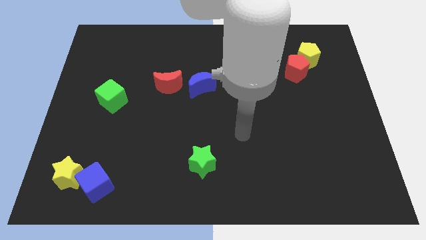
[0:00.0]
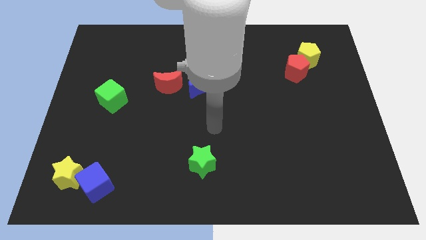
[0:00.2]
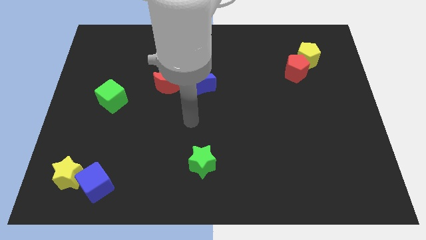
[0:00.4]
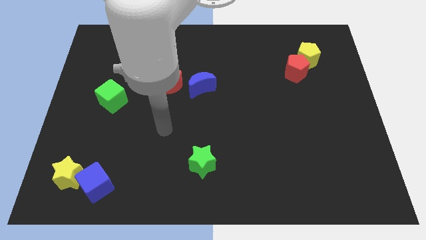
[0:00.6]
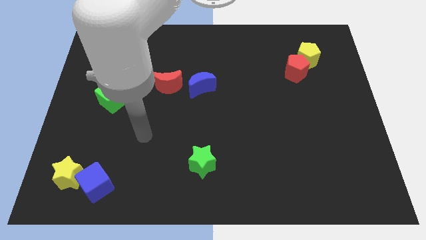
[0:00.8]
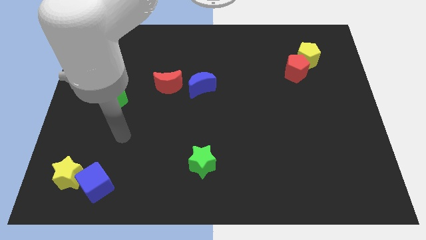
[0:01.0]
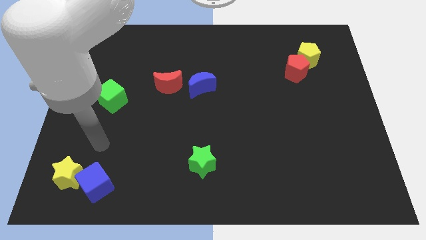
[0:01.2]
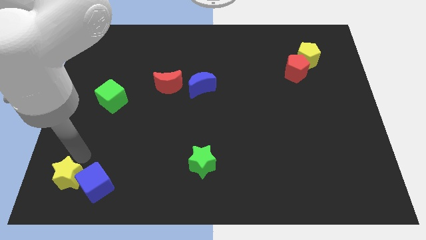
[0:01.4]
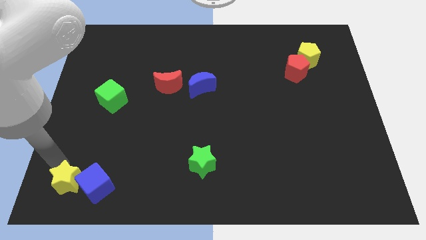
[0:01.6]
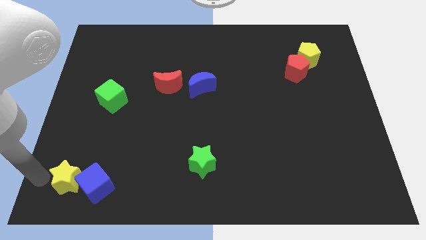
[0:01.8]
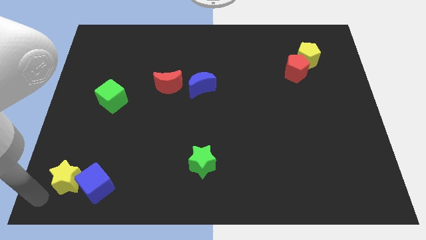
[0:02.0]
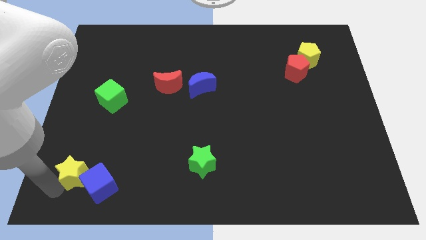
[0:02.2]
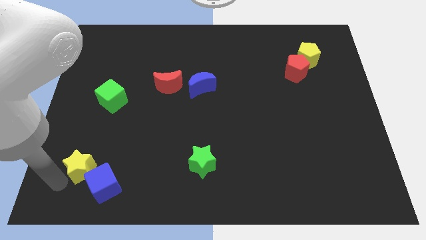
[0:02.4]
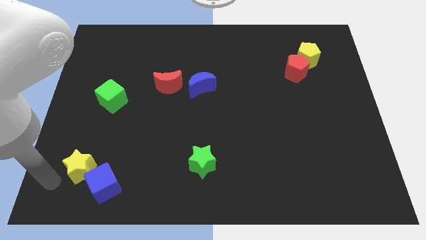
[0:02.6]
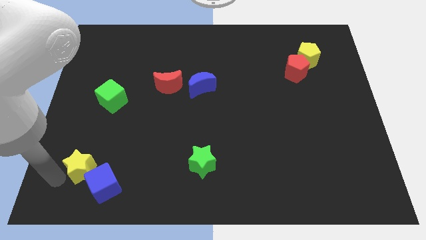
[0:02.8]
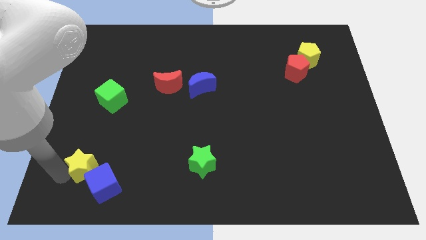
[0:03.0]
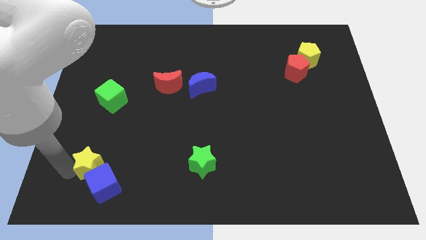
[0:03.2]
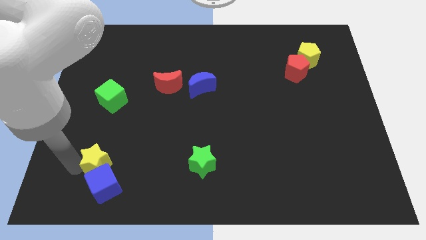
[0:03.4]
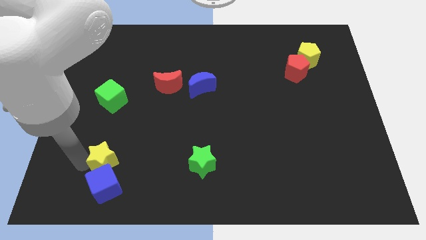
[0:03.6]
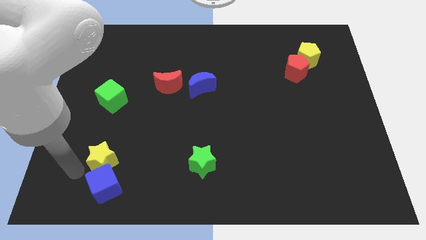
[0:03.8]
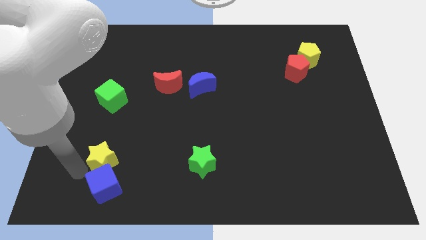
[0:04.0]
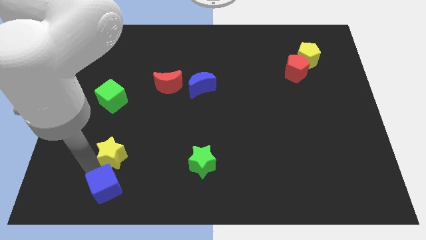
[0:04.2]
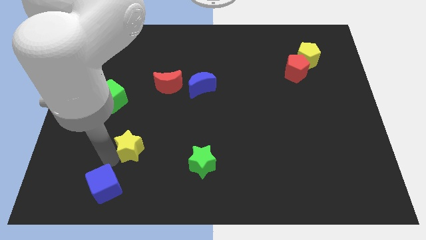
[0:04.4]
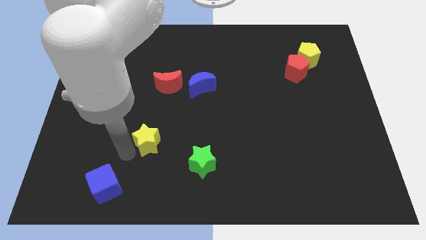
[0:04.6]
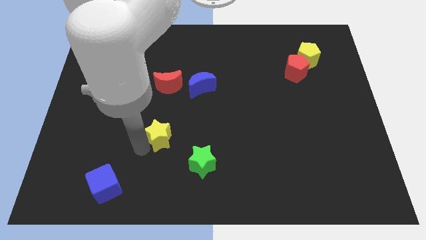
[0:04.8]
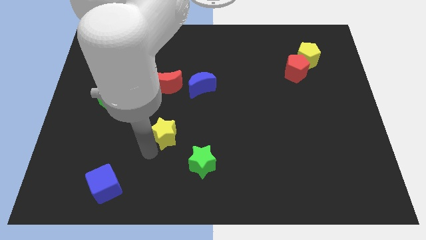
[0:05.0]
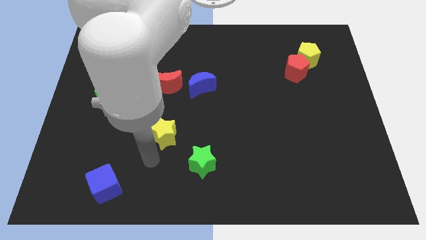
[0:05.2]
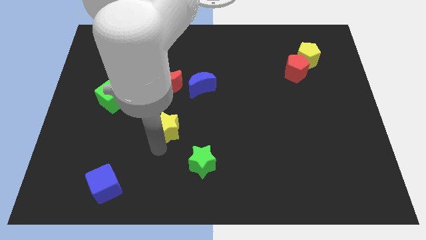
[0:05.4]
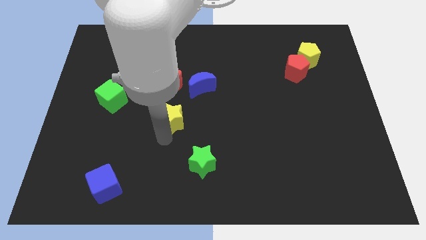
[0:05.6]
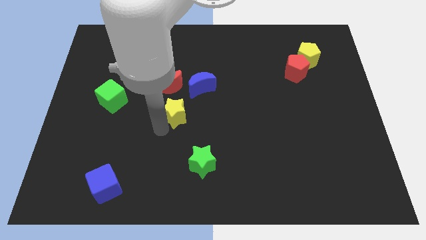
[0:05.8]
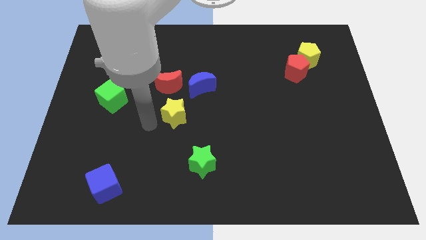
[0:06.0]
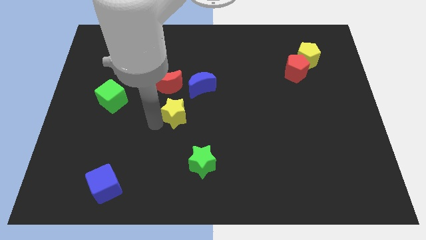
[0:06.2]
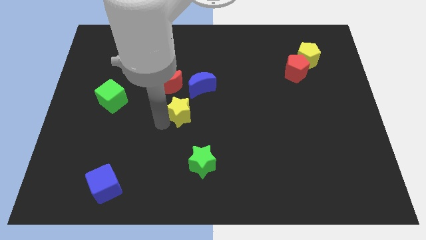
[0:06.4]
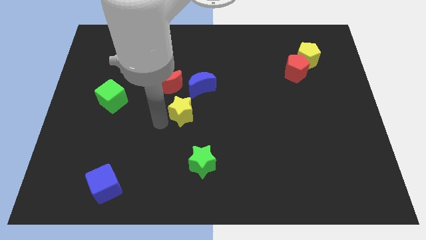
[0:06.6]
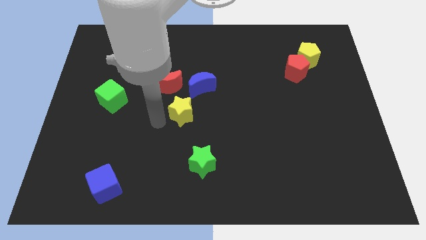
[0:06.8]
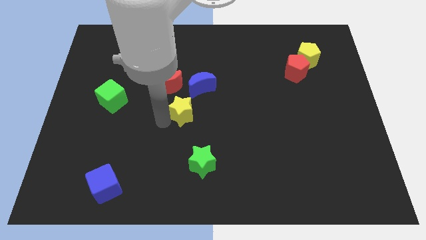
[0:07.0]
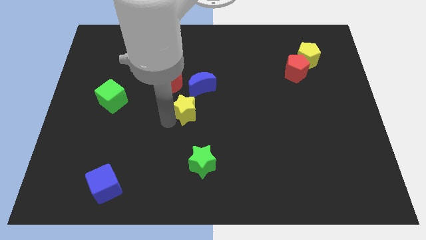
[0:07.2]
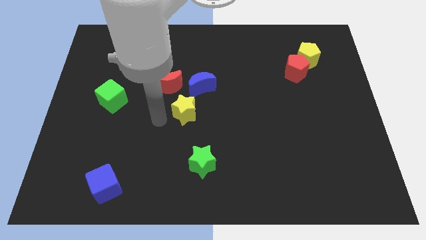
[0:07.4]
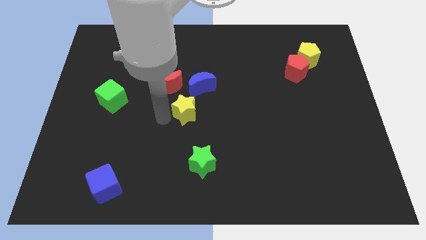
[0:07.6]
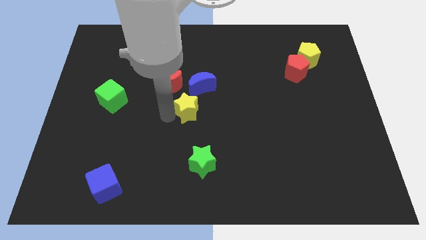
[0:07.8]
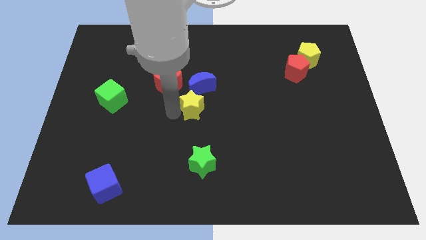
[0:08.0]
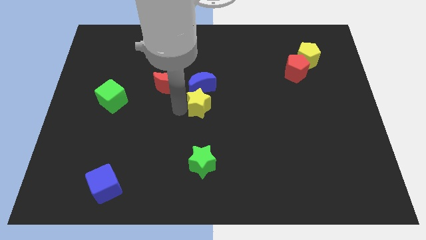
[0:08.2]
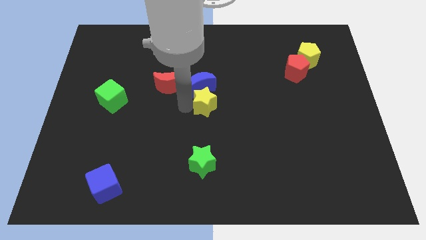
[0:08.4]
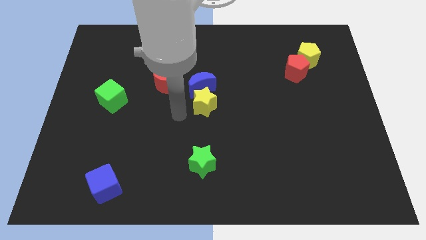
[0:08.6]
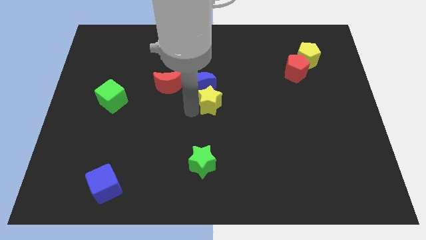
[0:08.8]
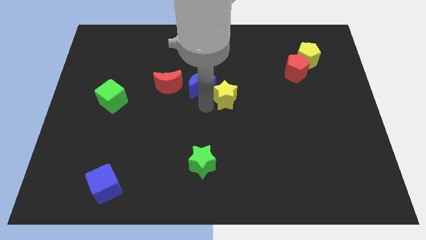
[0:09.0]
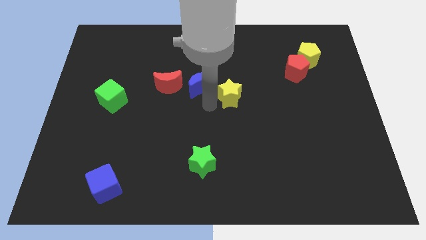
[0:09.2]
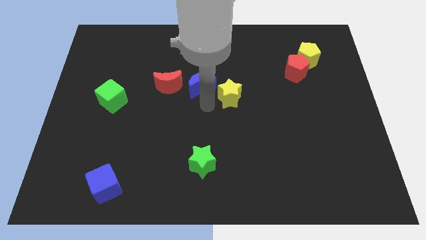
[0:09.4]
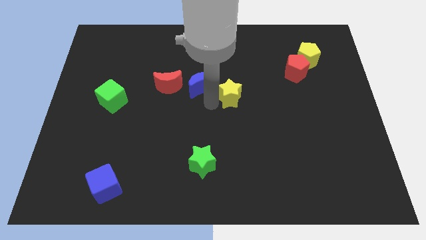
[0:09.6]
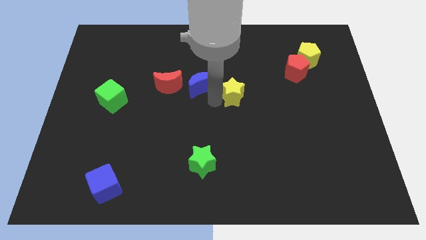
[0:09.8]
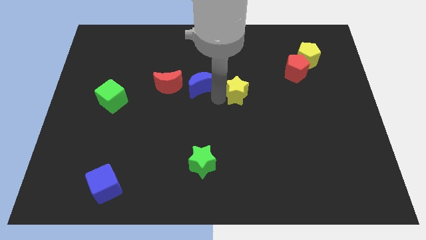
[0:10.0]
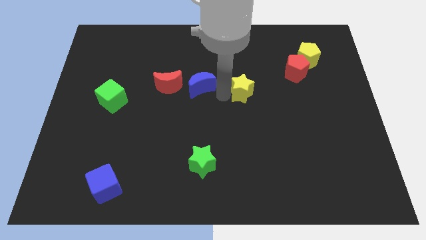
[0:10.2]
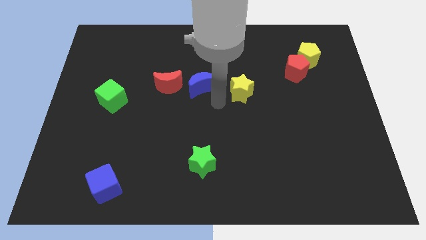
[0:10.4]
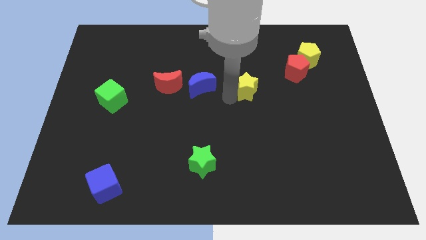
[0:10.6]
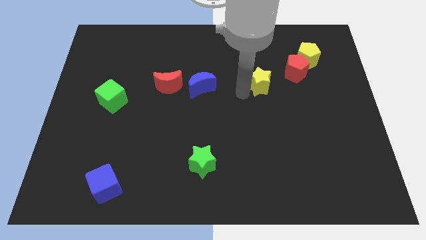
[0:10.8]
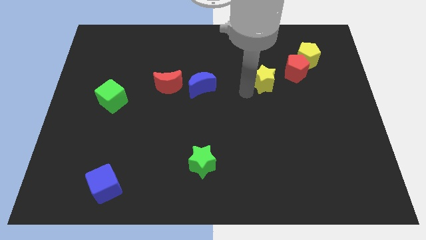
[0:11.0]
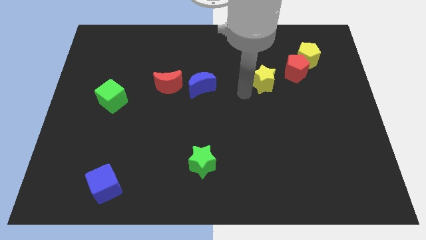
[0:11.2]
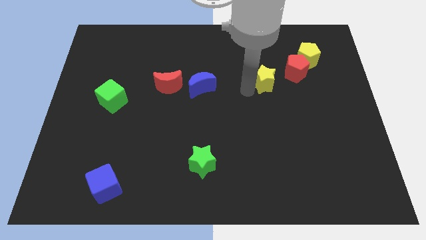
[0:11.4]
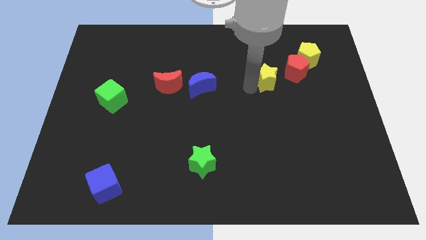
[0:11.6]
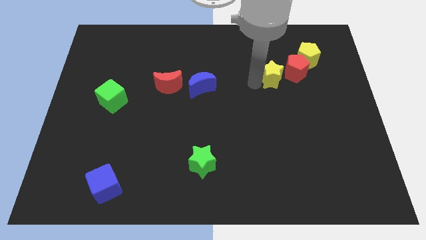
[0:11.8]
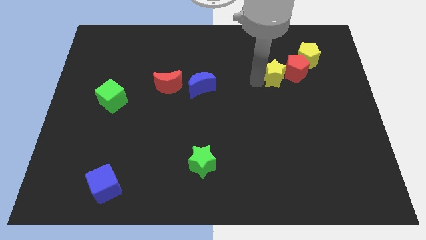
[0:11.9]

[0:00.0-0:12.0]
slide the yellow star next to the red pentagon

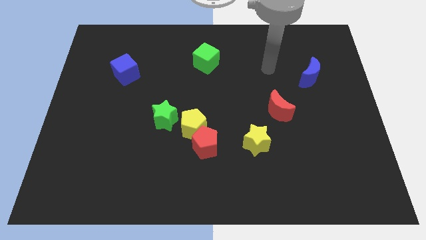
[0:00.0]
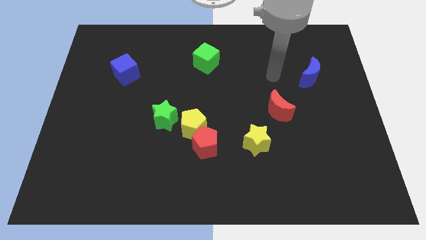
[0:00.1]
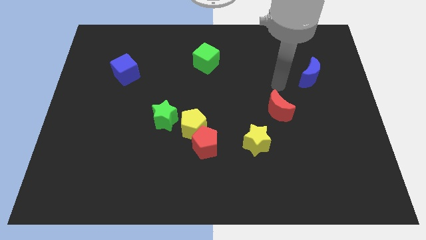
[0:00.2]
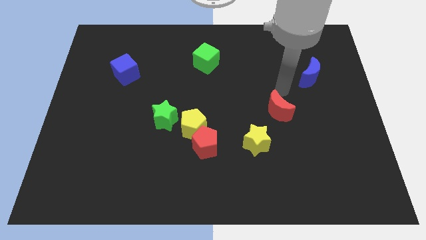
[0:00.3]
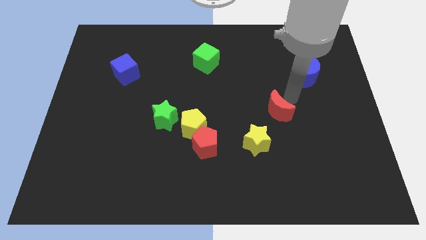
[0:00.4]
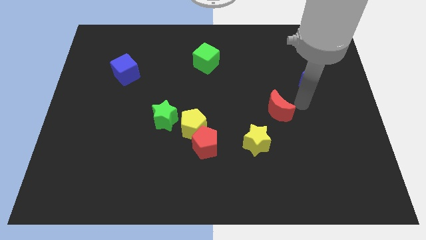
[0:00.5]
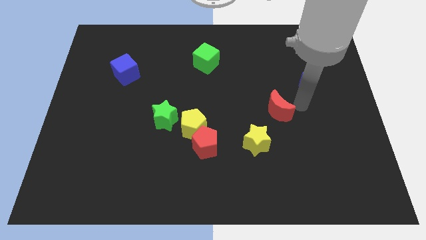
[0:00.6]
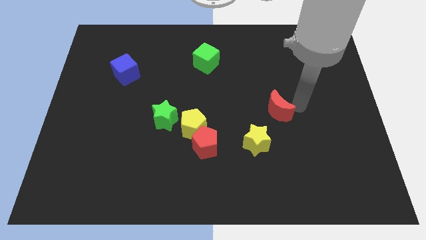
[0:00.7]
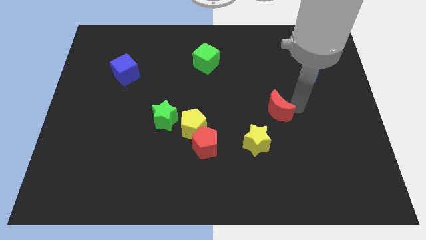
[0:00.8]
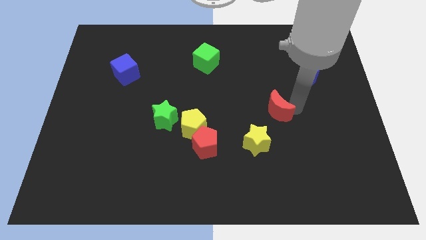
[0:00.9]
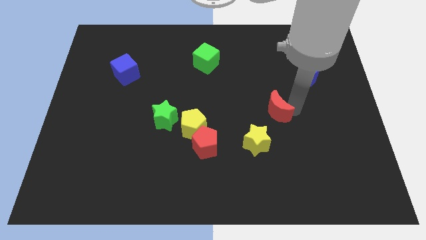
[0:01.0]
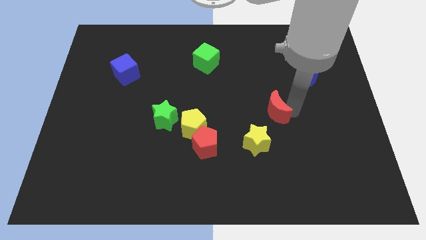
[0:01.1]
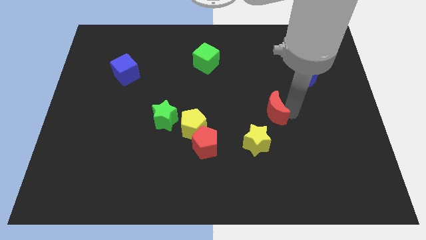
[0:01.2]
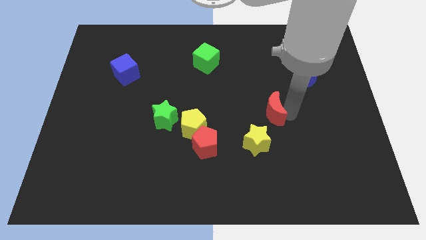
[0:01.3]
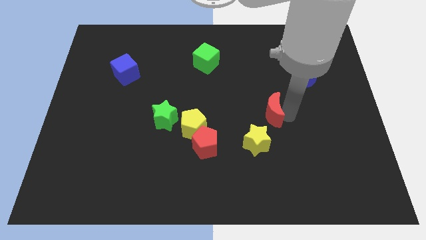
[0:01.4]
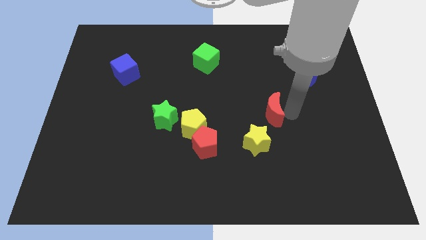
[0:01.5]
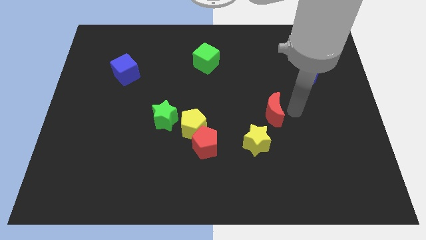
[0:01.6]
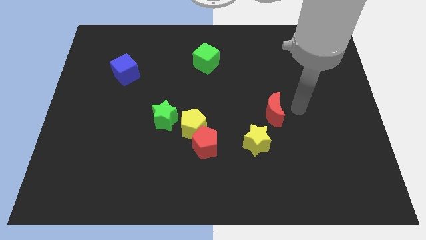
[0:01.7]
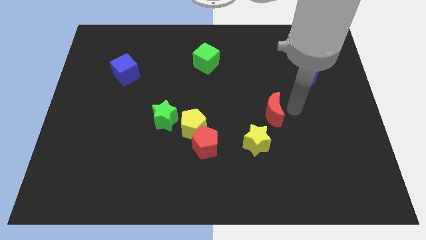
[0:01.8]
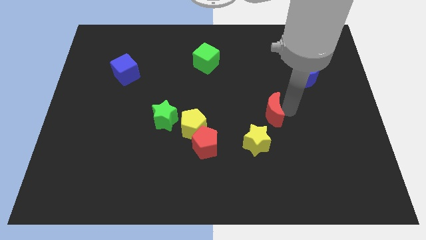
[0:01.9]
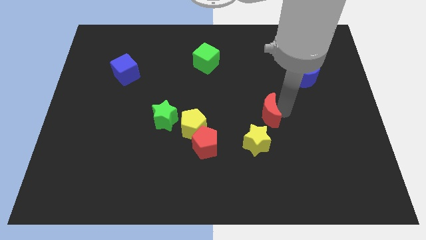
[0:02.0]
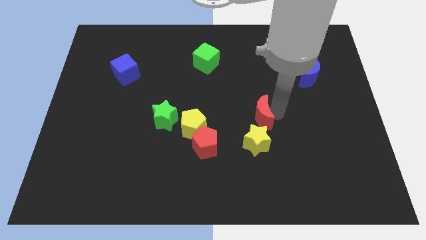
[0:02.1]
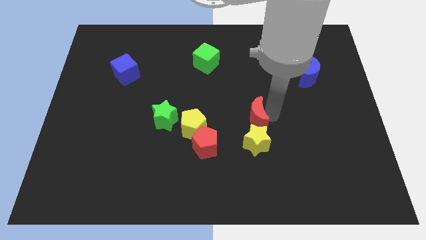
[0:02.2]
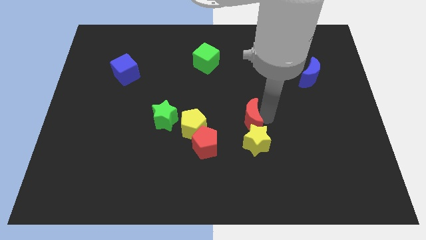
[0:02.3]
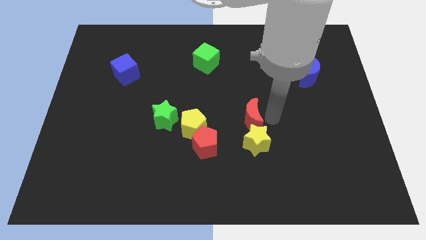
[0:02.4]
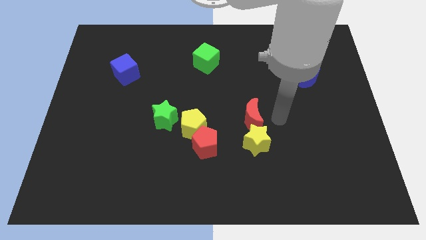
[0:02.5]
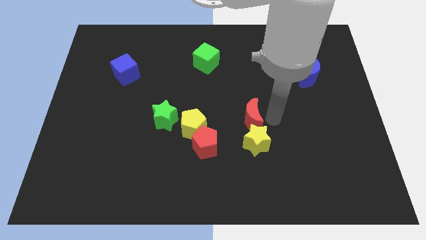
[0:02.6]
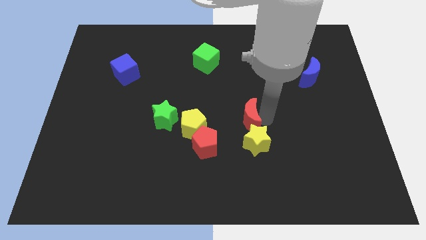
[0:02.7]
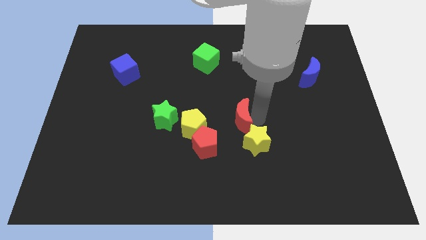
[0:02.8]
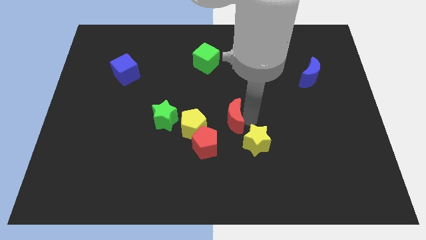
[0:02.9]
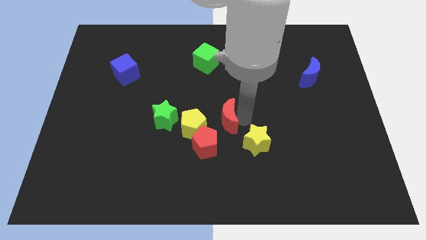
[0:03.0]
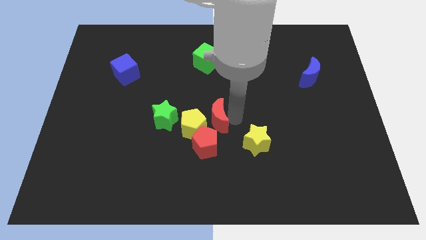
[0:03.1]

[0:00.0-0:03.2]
put the red moon towards the yellow pentagon
